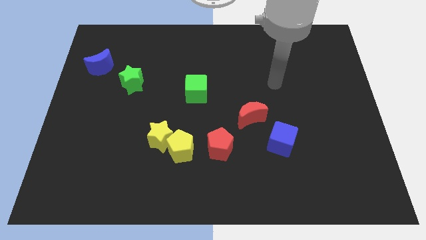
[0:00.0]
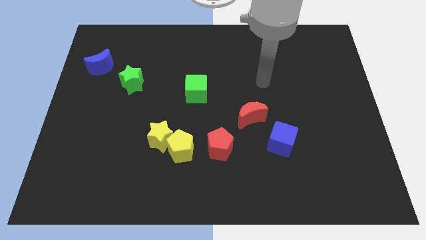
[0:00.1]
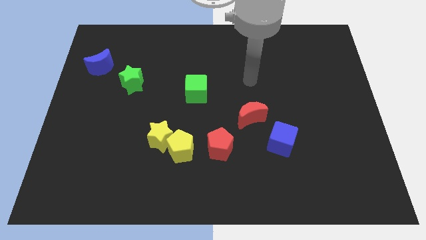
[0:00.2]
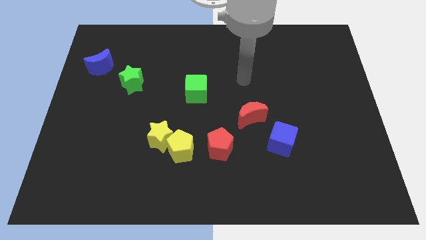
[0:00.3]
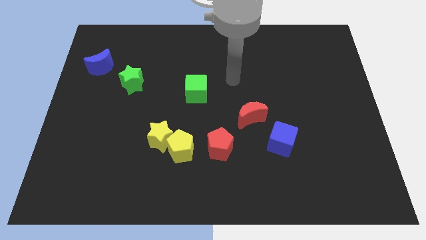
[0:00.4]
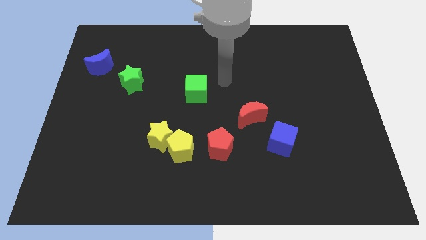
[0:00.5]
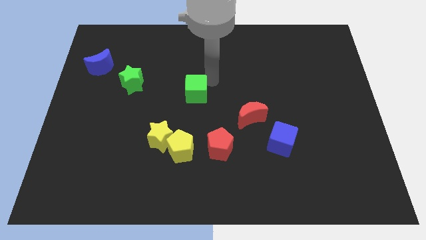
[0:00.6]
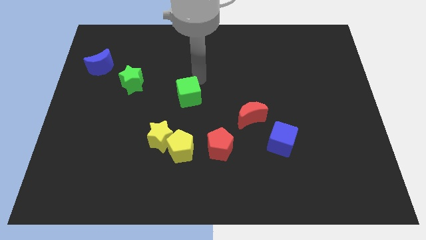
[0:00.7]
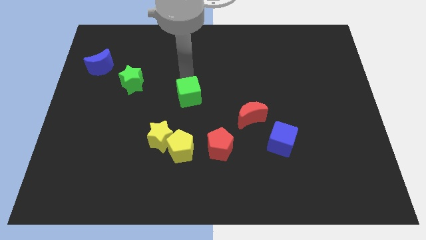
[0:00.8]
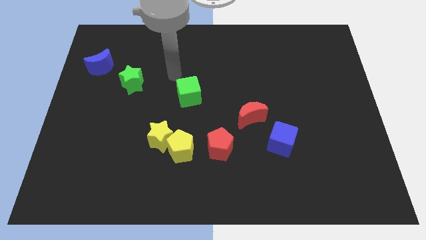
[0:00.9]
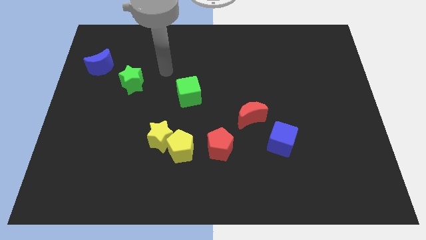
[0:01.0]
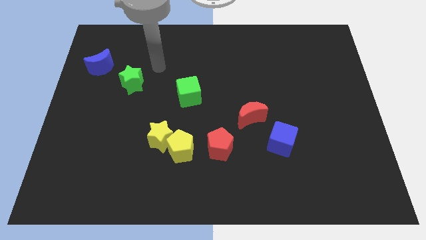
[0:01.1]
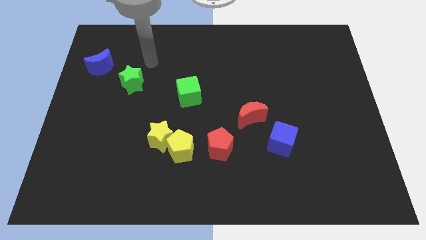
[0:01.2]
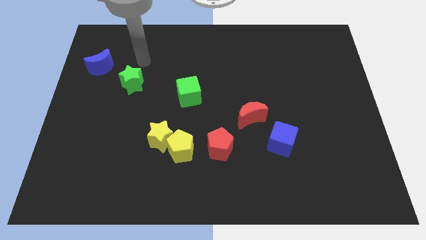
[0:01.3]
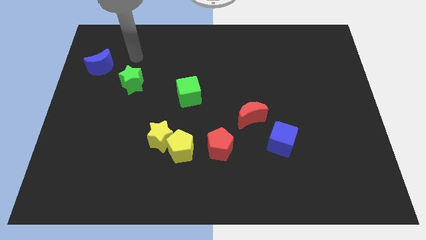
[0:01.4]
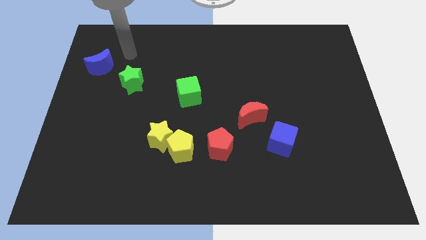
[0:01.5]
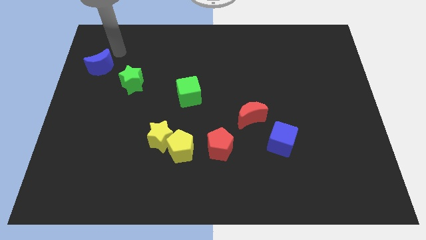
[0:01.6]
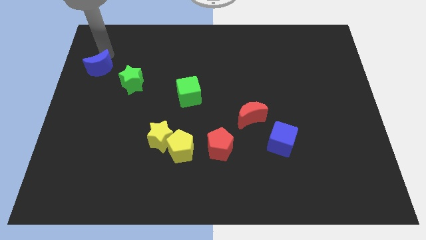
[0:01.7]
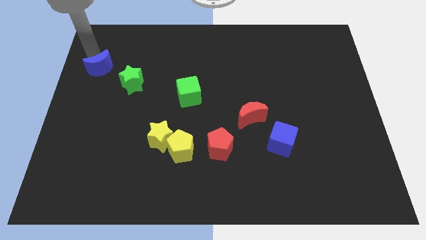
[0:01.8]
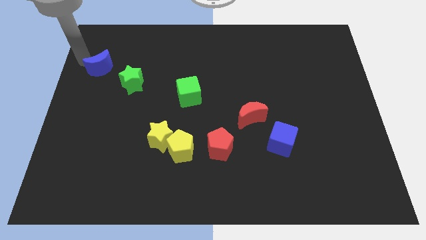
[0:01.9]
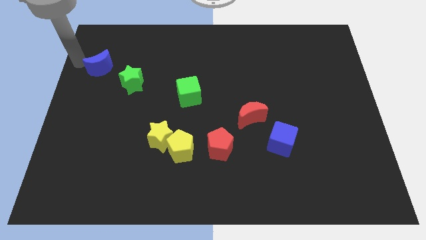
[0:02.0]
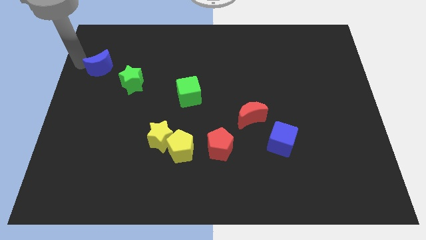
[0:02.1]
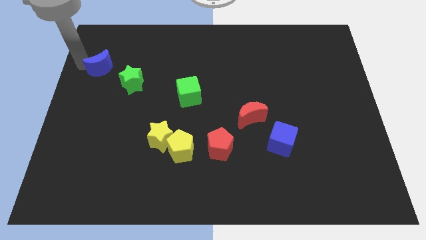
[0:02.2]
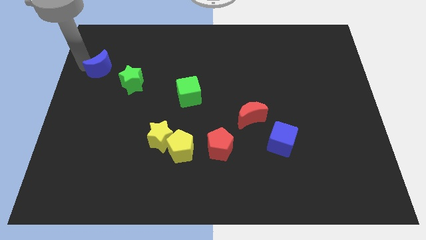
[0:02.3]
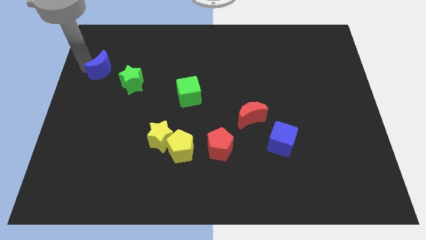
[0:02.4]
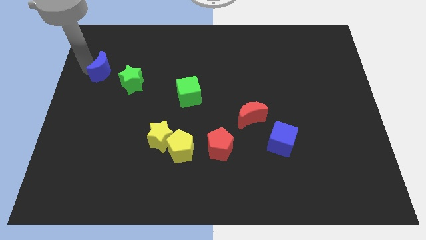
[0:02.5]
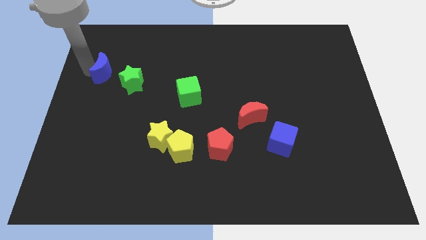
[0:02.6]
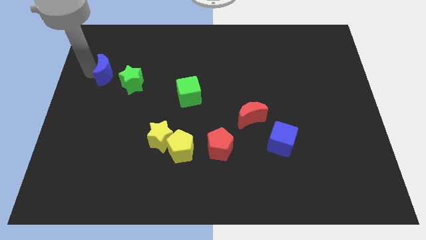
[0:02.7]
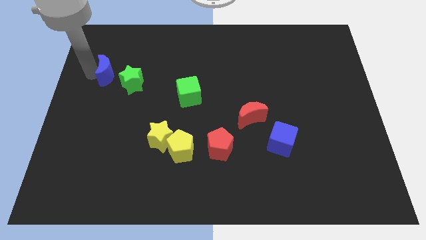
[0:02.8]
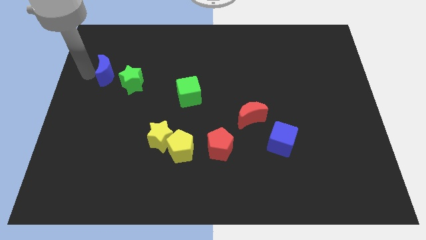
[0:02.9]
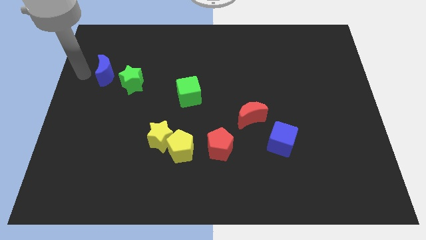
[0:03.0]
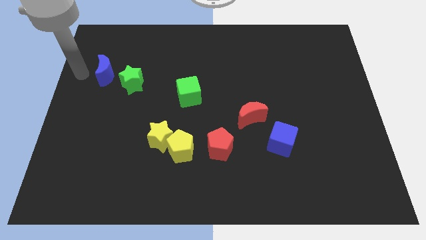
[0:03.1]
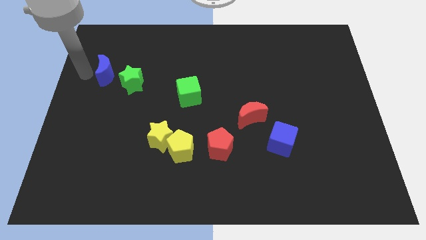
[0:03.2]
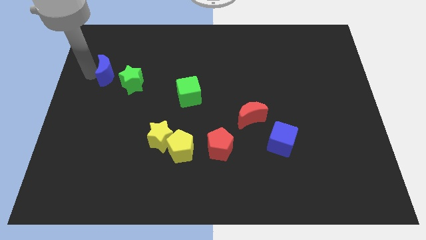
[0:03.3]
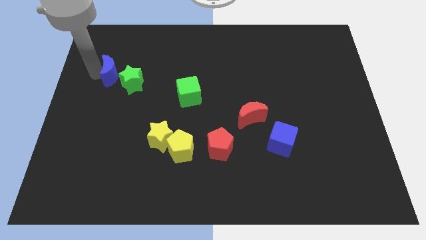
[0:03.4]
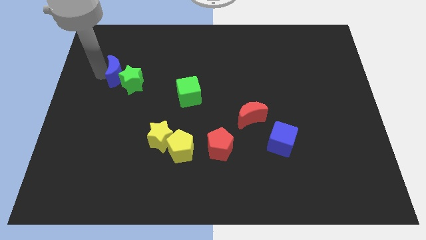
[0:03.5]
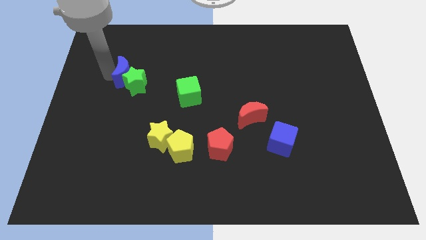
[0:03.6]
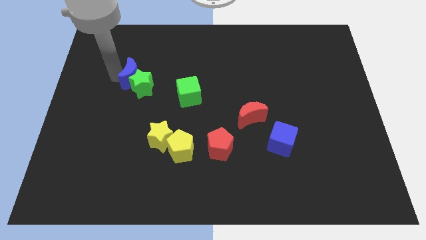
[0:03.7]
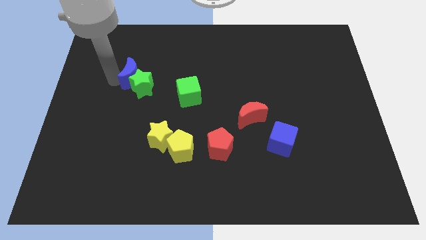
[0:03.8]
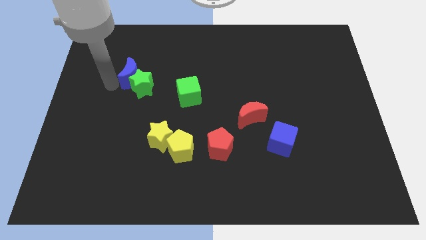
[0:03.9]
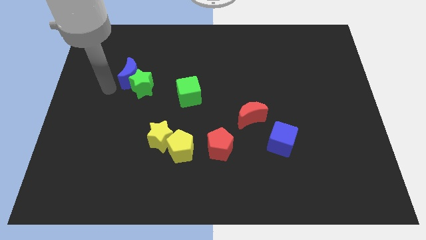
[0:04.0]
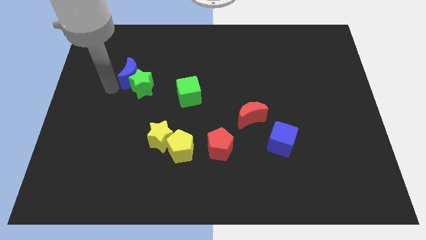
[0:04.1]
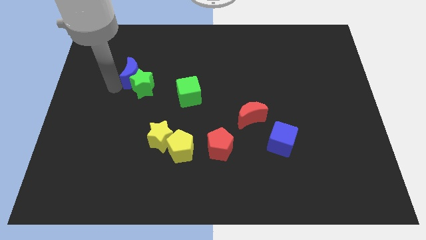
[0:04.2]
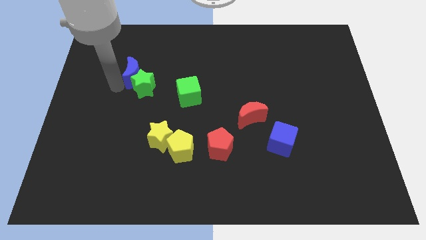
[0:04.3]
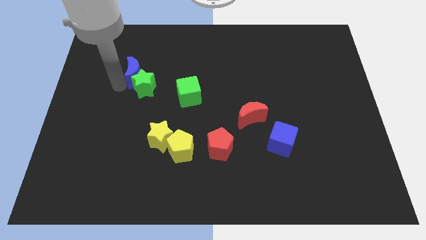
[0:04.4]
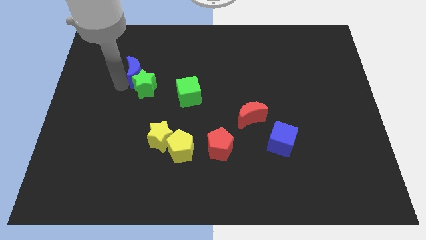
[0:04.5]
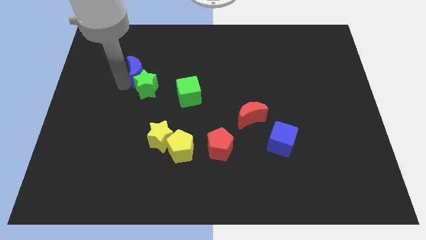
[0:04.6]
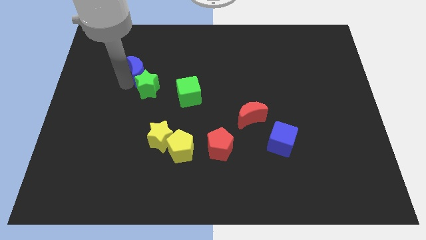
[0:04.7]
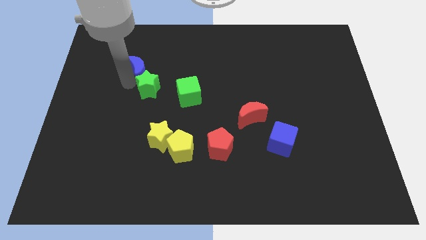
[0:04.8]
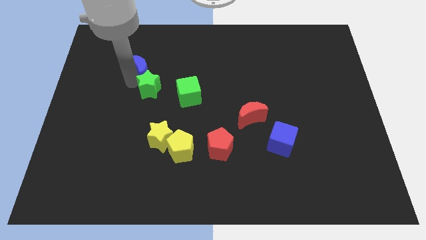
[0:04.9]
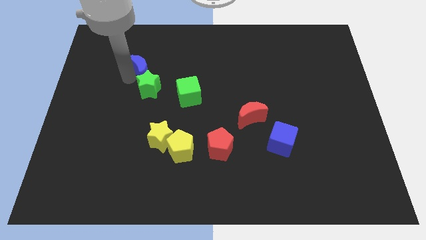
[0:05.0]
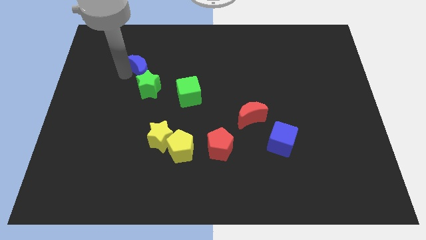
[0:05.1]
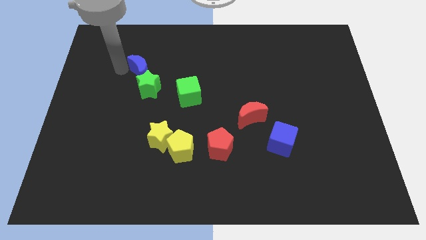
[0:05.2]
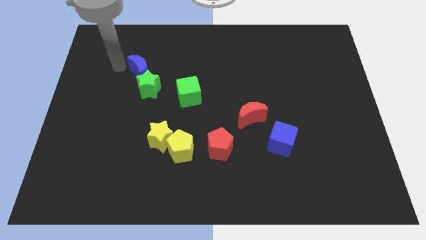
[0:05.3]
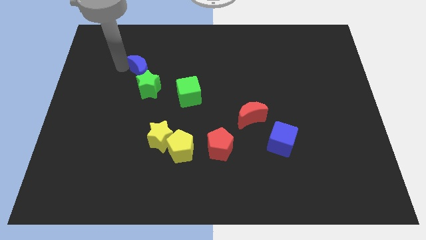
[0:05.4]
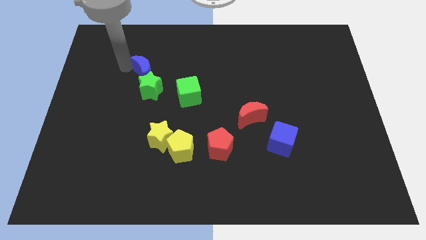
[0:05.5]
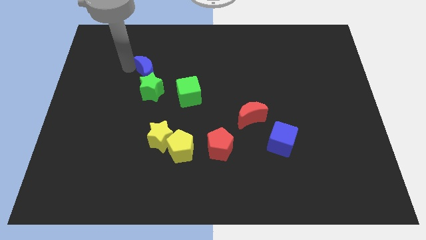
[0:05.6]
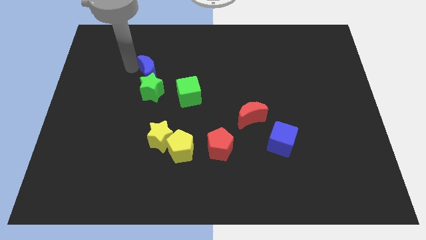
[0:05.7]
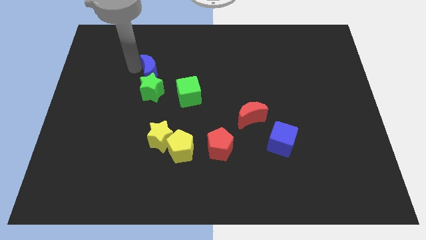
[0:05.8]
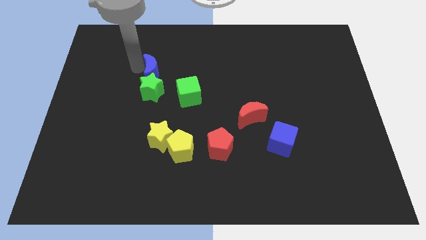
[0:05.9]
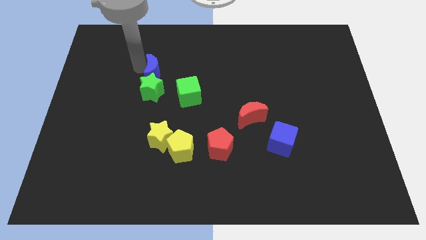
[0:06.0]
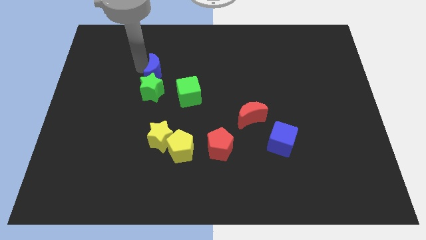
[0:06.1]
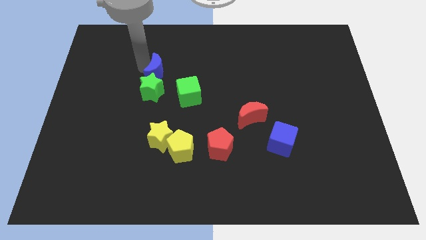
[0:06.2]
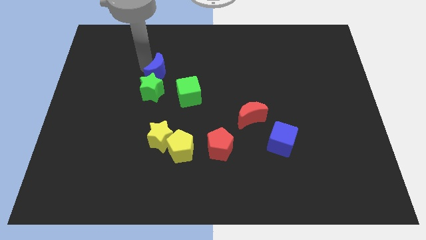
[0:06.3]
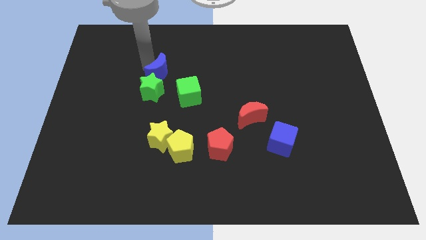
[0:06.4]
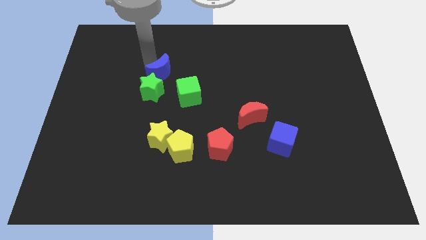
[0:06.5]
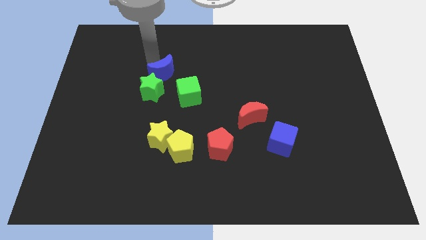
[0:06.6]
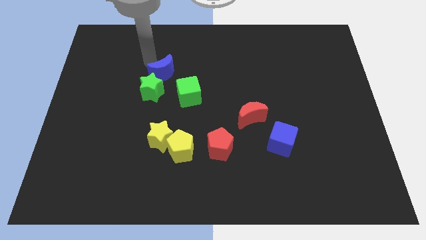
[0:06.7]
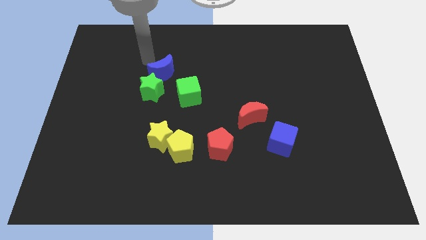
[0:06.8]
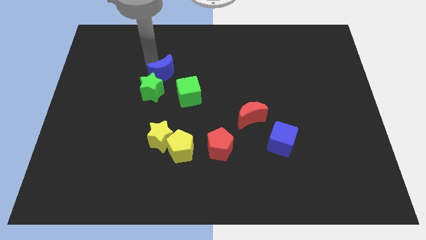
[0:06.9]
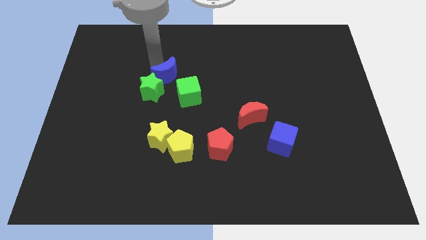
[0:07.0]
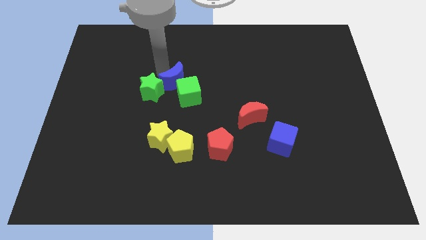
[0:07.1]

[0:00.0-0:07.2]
push the blue moon towards the green cube

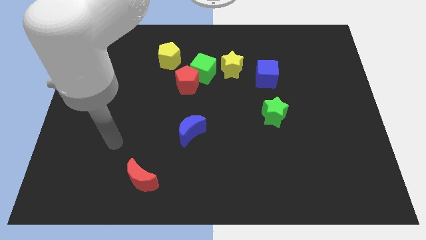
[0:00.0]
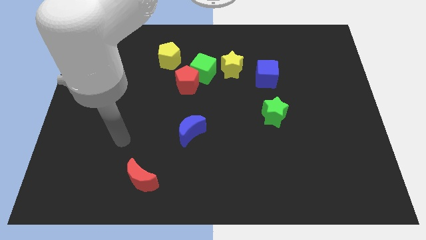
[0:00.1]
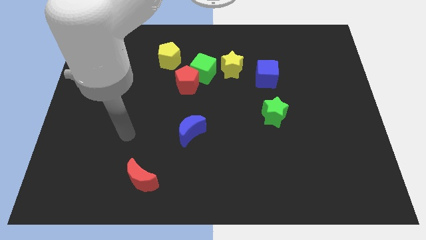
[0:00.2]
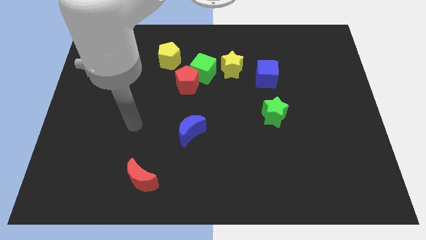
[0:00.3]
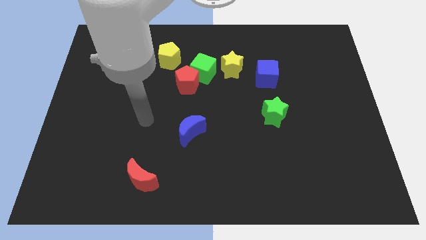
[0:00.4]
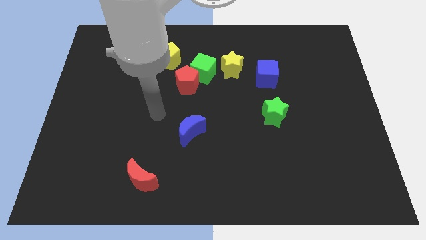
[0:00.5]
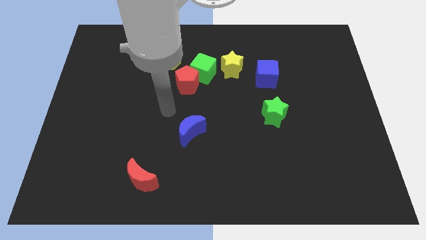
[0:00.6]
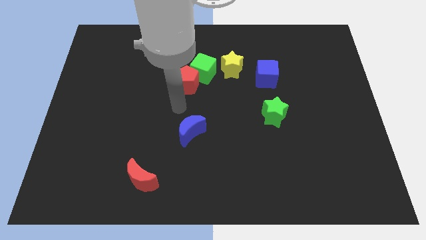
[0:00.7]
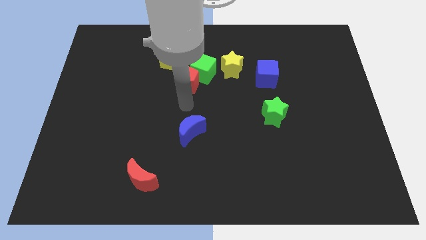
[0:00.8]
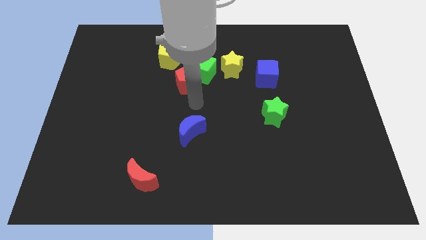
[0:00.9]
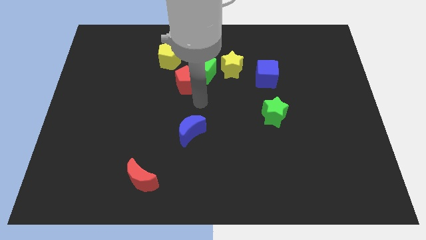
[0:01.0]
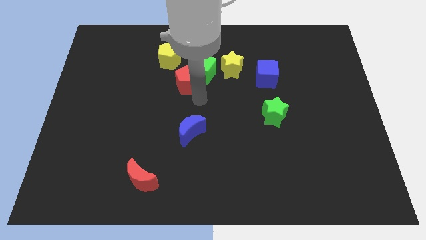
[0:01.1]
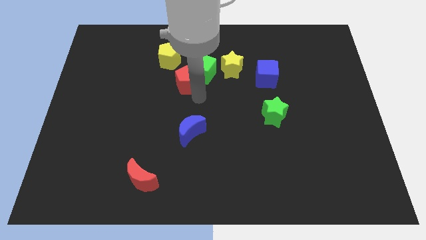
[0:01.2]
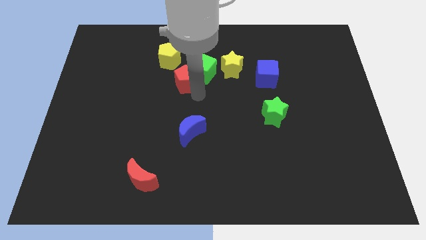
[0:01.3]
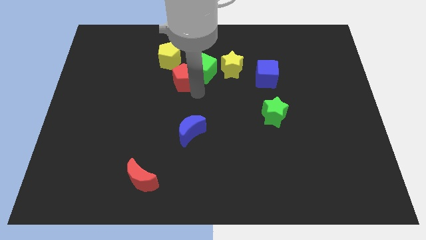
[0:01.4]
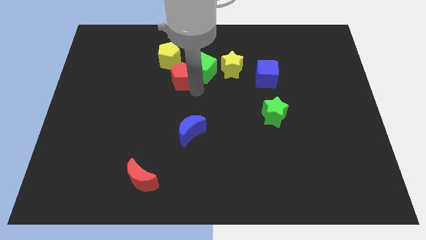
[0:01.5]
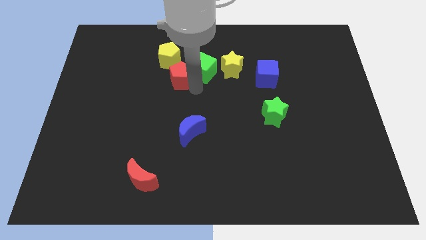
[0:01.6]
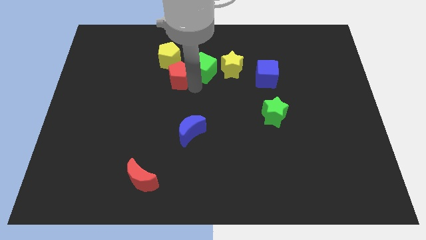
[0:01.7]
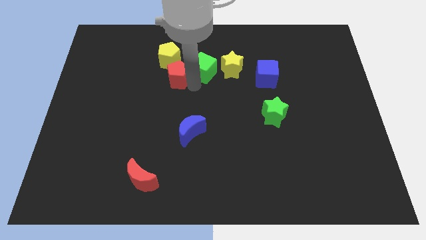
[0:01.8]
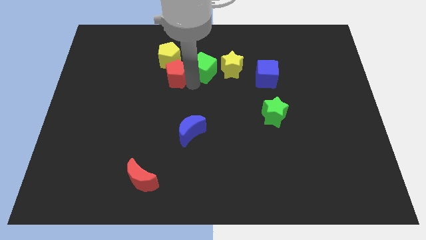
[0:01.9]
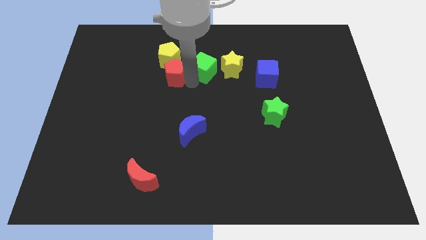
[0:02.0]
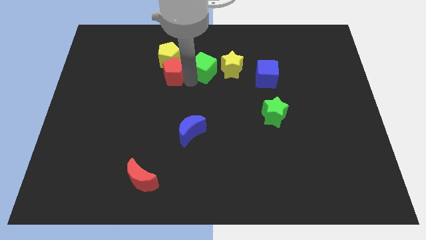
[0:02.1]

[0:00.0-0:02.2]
push the red pentagon close to the yellow pentagon
